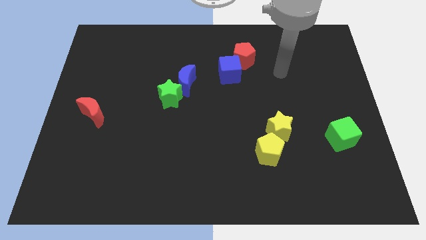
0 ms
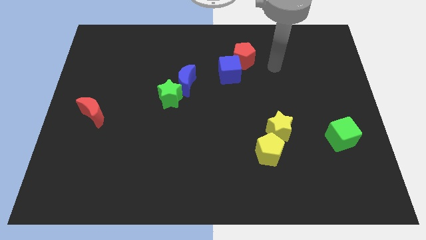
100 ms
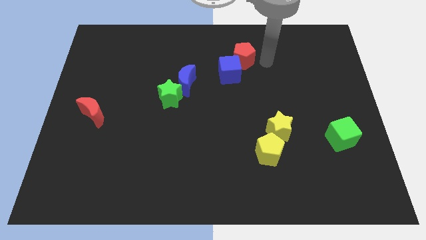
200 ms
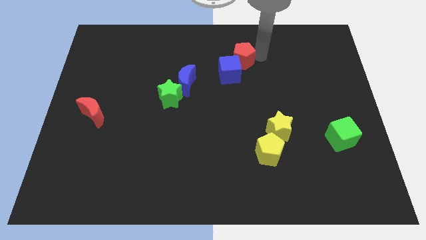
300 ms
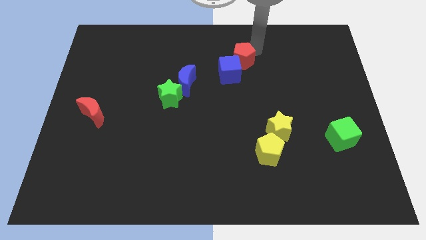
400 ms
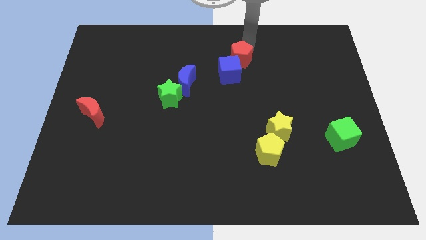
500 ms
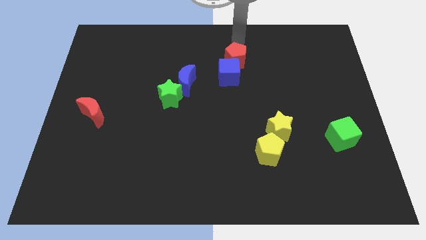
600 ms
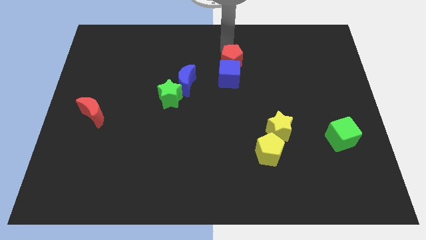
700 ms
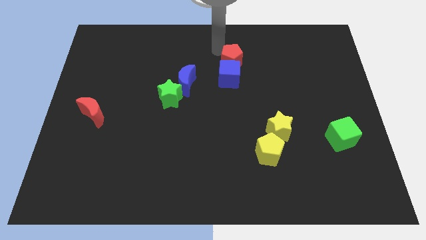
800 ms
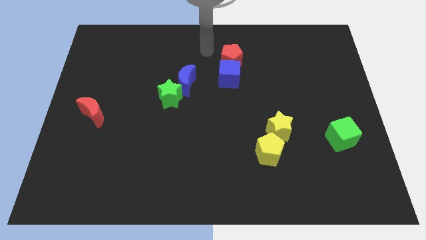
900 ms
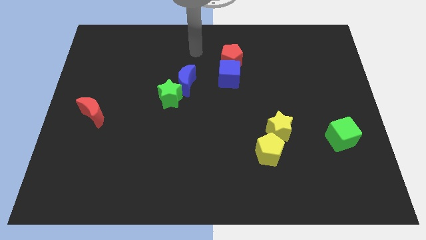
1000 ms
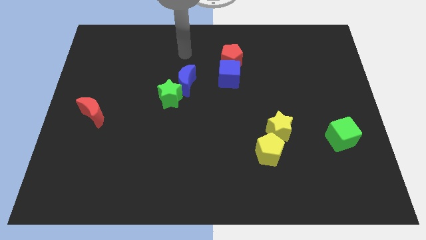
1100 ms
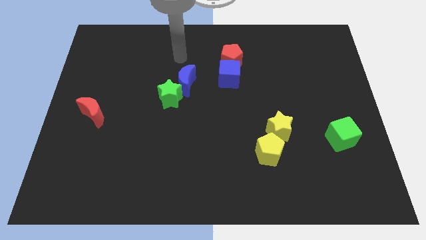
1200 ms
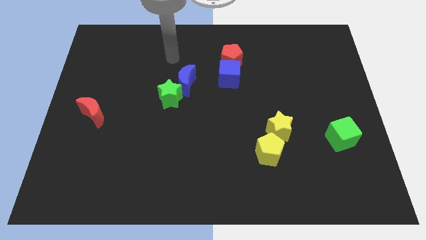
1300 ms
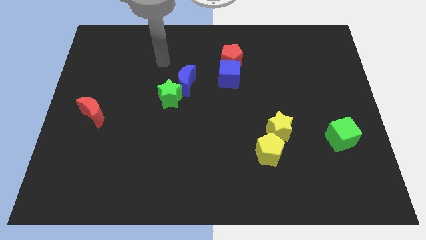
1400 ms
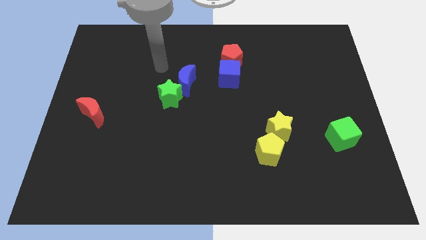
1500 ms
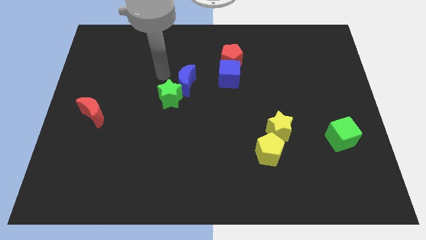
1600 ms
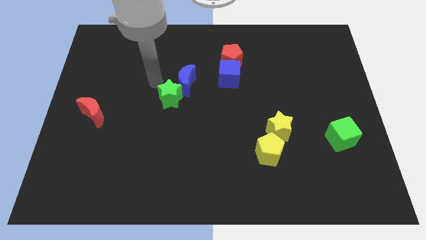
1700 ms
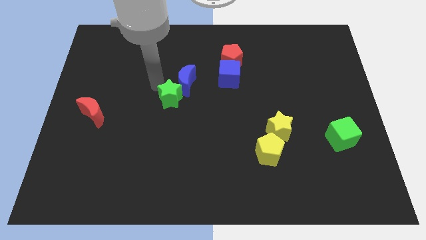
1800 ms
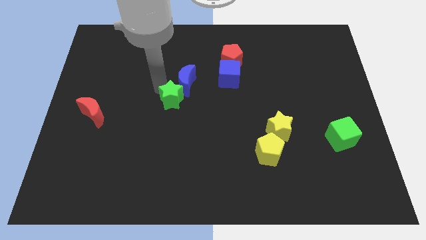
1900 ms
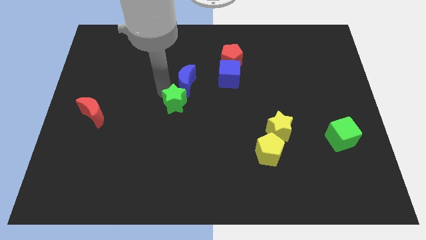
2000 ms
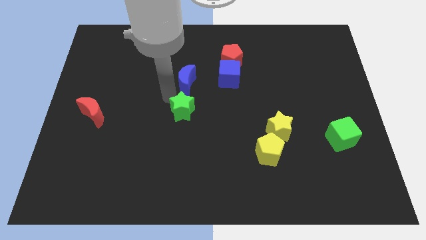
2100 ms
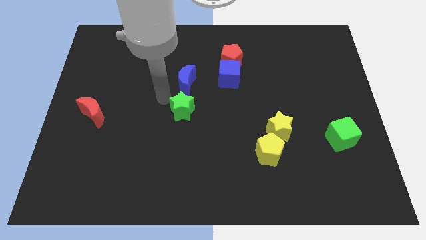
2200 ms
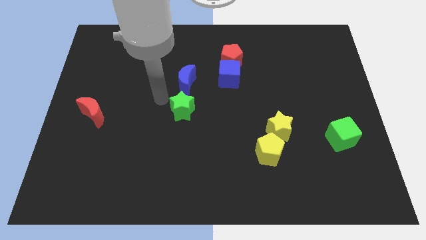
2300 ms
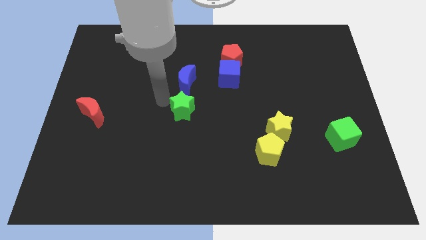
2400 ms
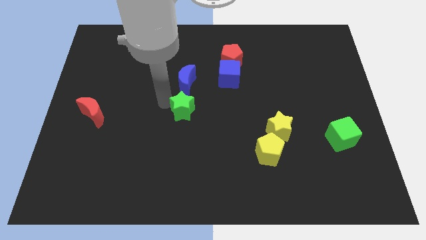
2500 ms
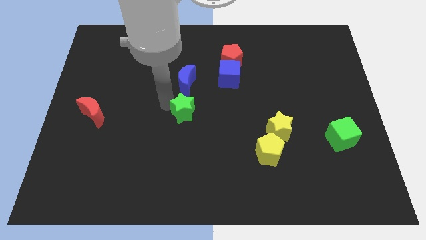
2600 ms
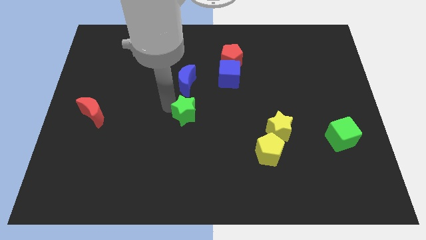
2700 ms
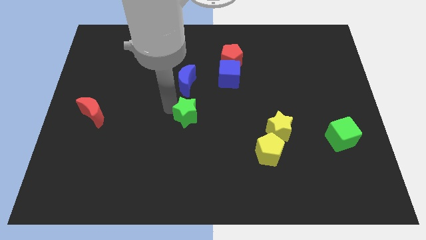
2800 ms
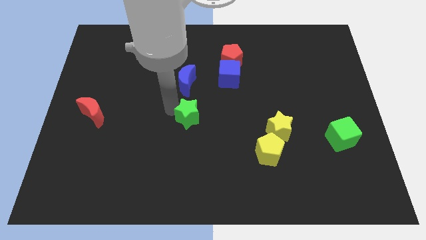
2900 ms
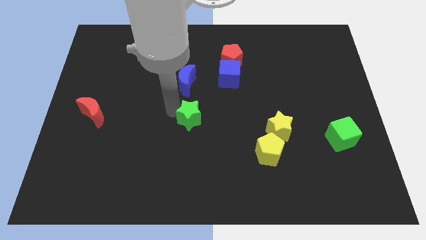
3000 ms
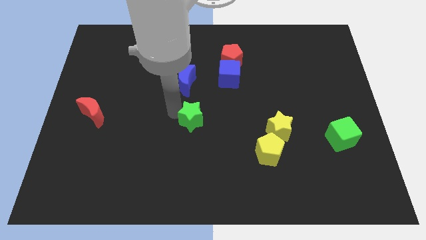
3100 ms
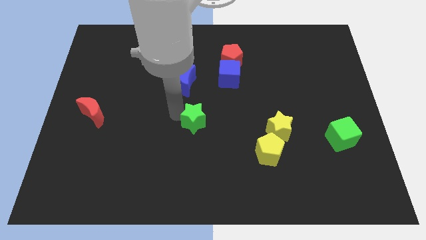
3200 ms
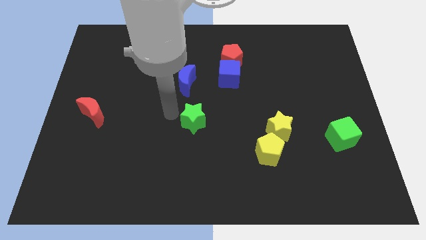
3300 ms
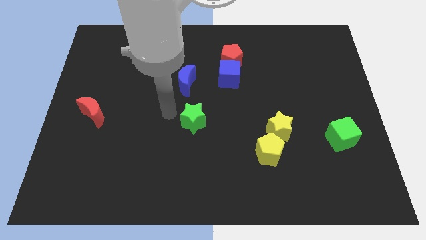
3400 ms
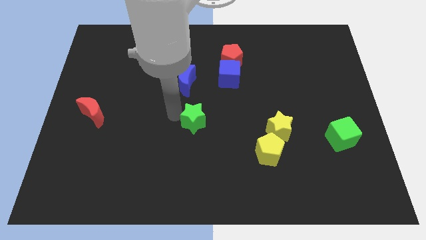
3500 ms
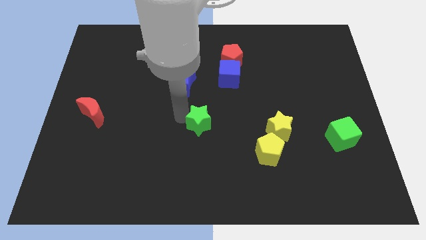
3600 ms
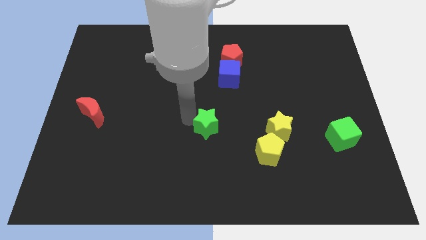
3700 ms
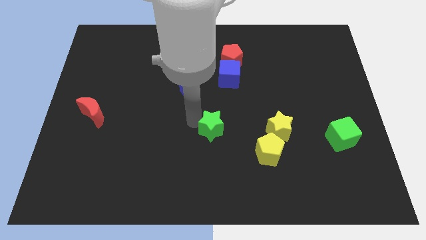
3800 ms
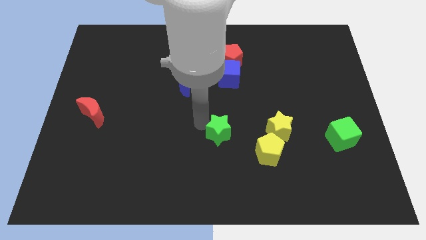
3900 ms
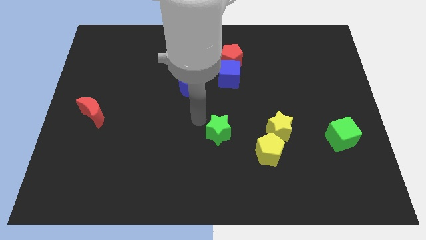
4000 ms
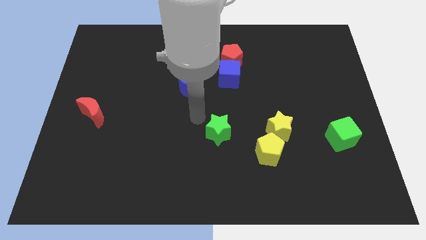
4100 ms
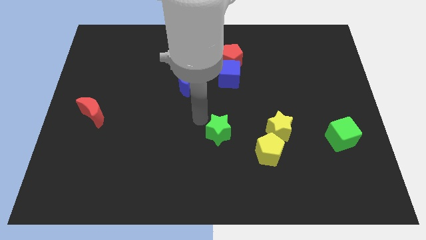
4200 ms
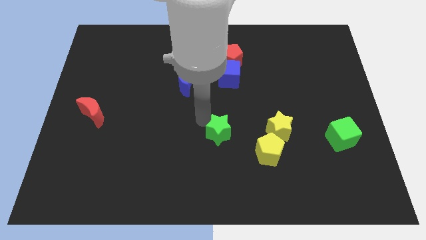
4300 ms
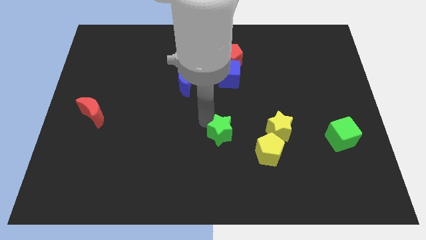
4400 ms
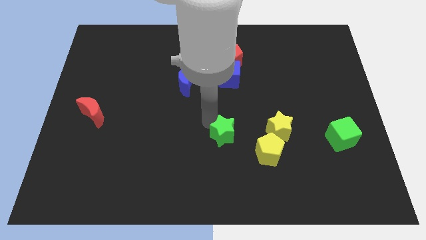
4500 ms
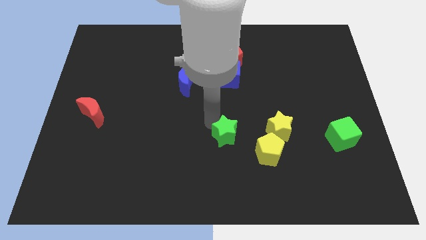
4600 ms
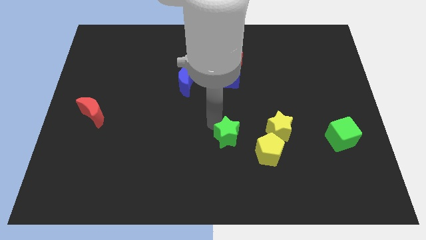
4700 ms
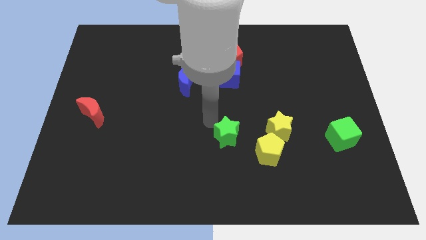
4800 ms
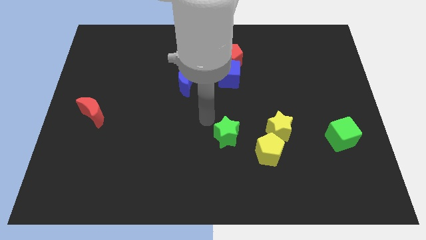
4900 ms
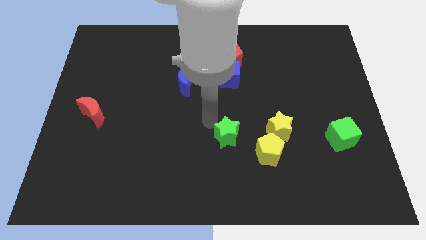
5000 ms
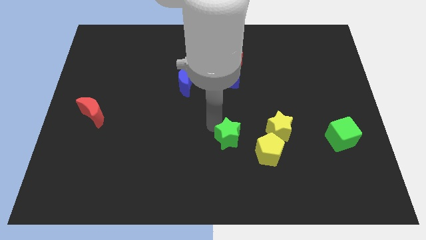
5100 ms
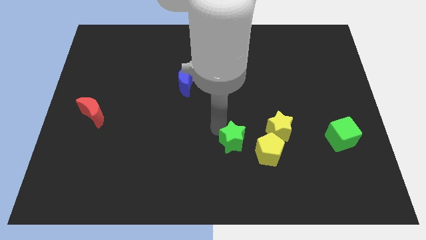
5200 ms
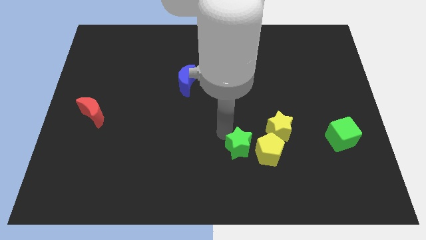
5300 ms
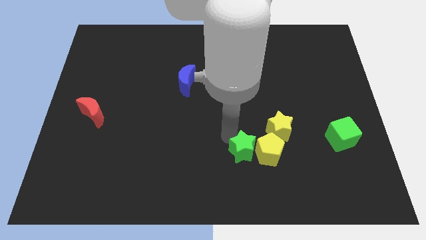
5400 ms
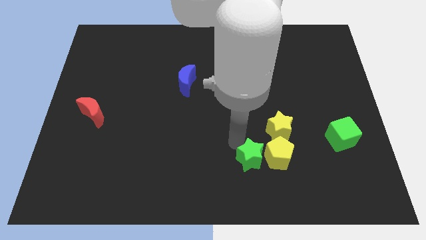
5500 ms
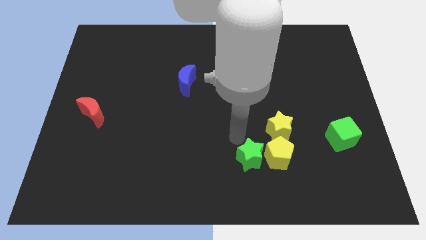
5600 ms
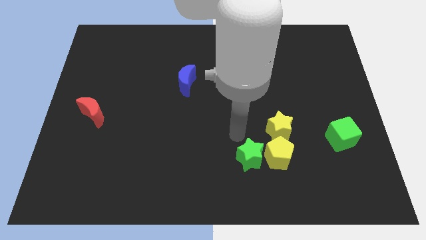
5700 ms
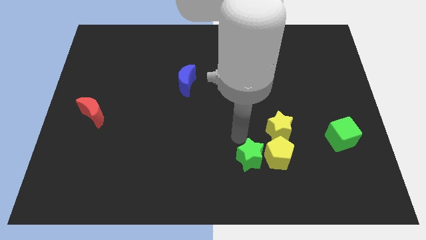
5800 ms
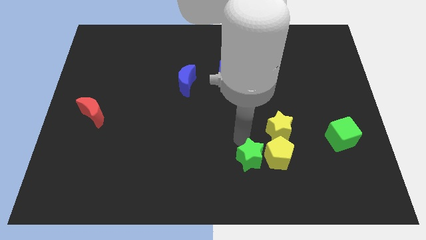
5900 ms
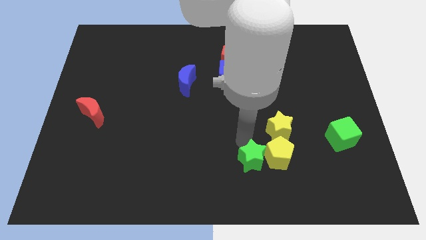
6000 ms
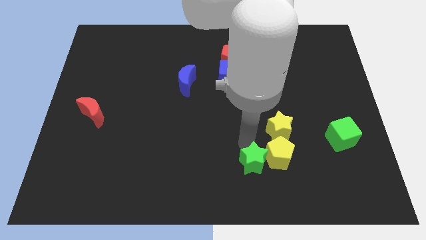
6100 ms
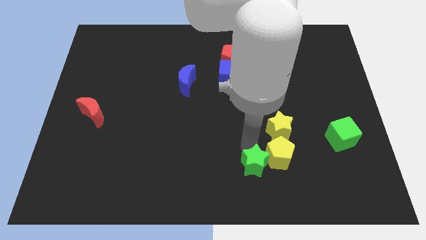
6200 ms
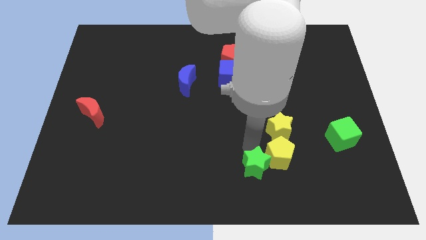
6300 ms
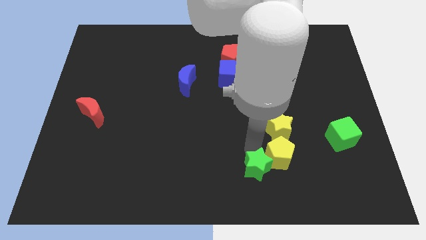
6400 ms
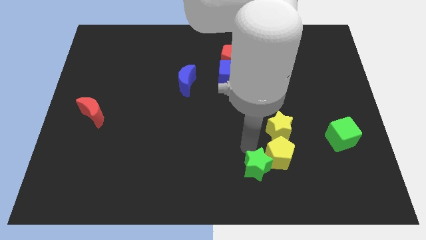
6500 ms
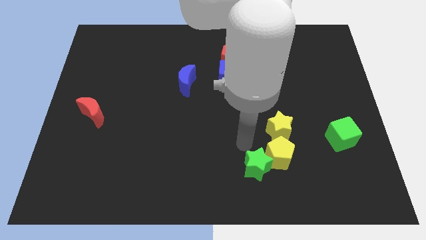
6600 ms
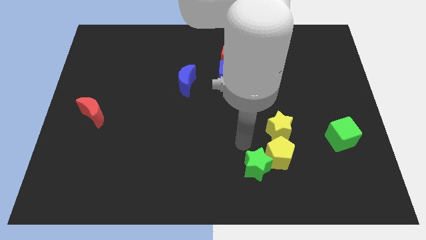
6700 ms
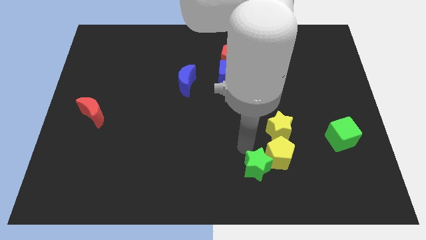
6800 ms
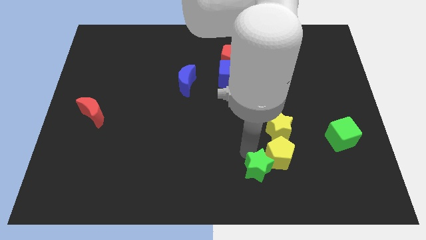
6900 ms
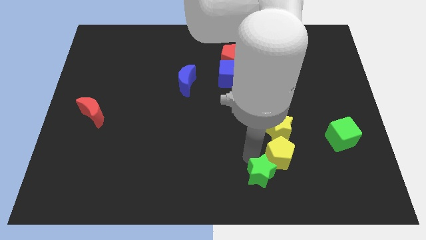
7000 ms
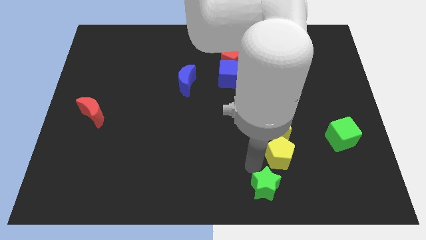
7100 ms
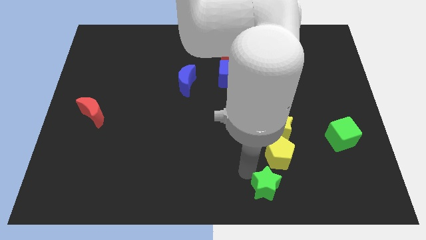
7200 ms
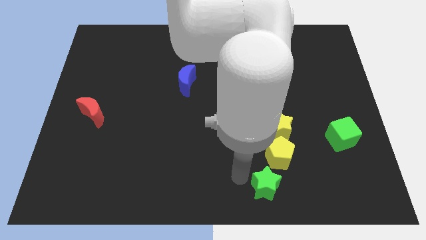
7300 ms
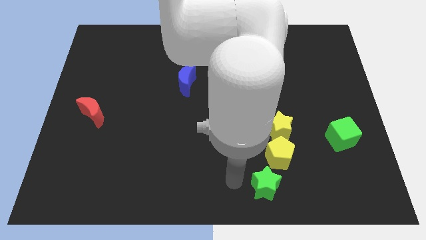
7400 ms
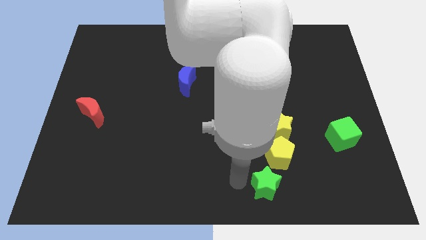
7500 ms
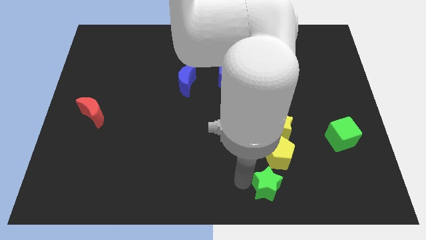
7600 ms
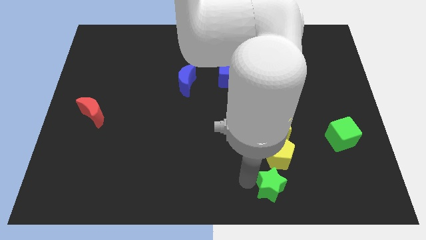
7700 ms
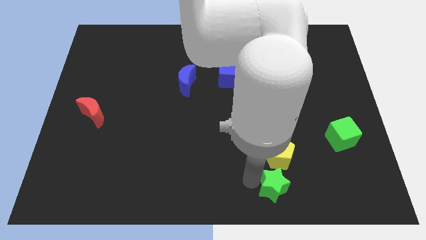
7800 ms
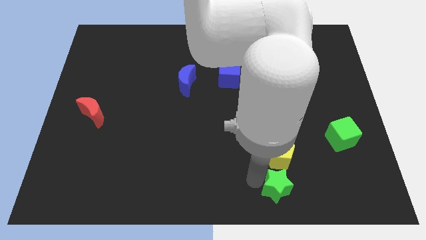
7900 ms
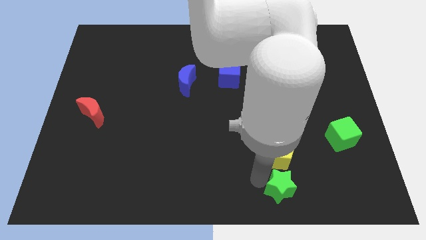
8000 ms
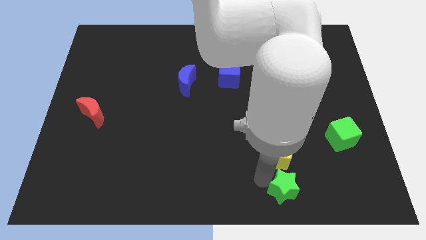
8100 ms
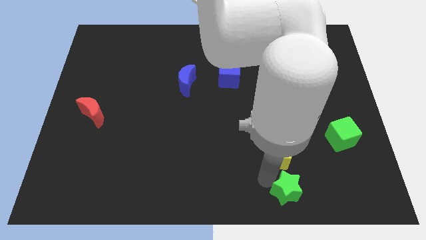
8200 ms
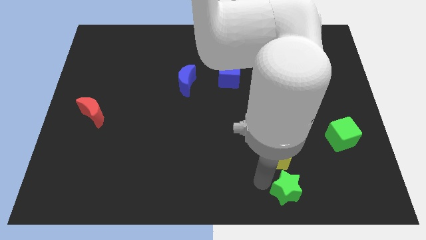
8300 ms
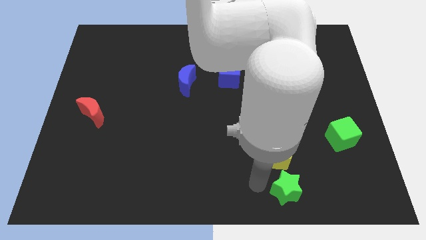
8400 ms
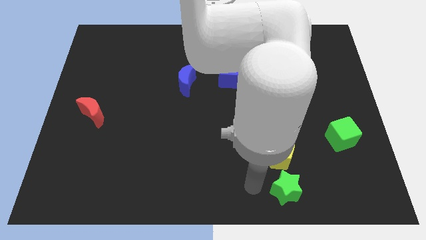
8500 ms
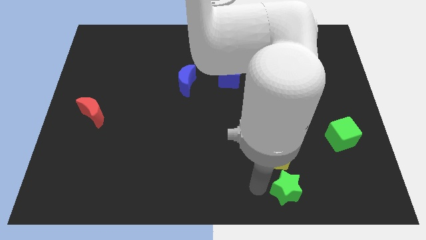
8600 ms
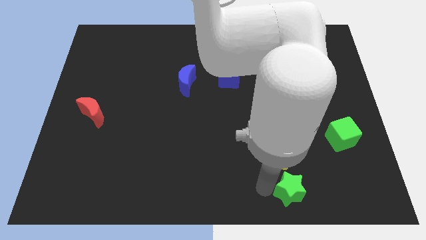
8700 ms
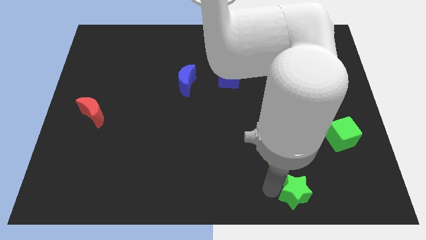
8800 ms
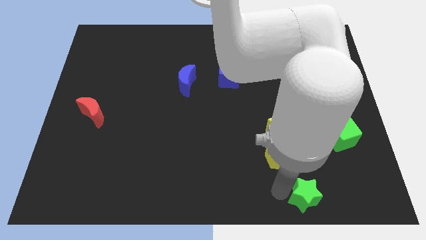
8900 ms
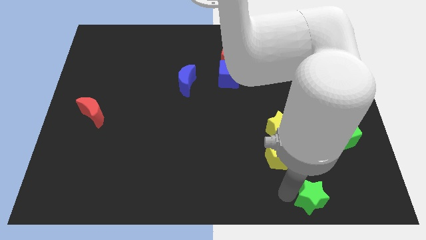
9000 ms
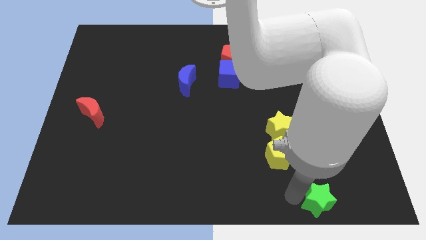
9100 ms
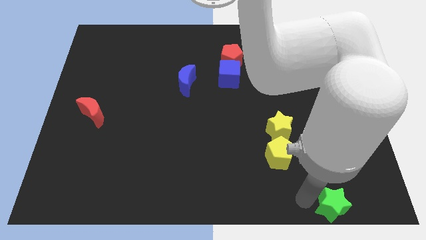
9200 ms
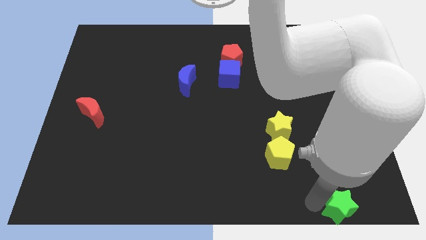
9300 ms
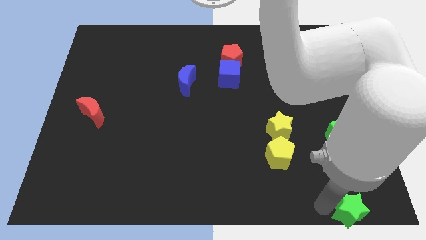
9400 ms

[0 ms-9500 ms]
move the green star to the bottom right of the board
